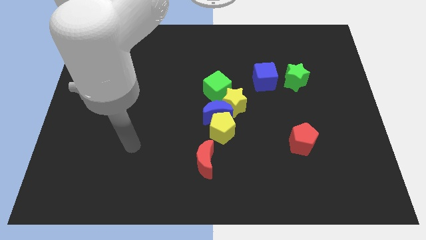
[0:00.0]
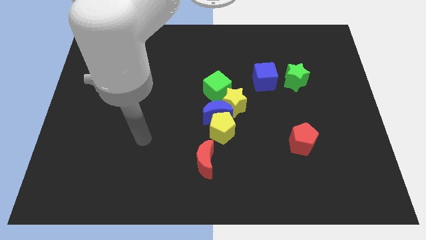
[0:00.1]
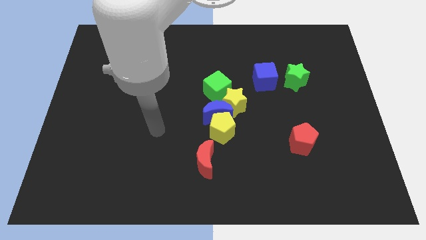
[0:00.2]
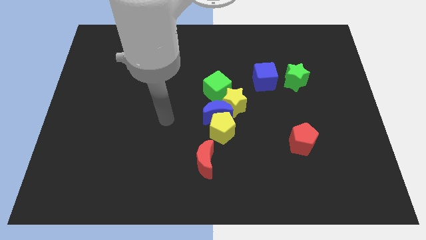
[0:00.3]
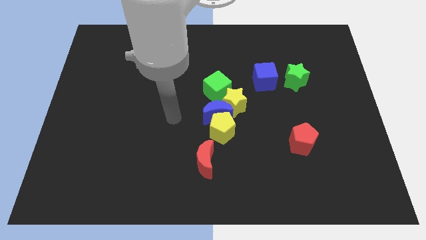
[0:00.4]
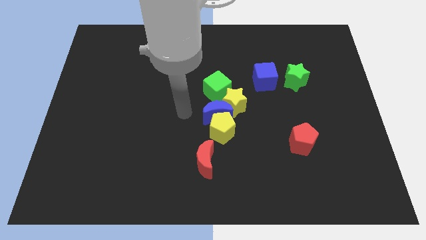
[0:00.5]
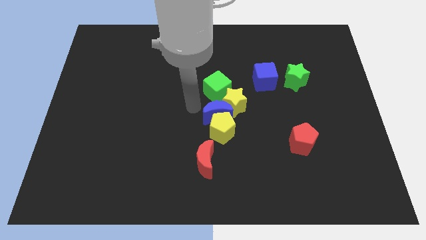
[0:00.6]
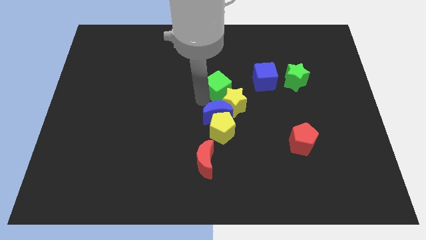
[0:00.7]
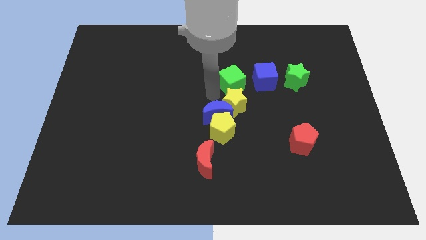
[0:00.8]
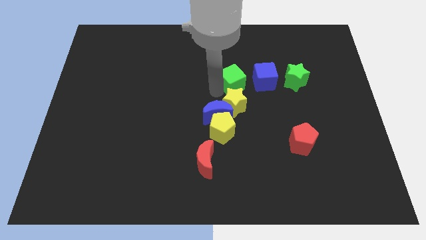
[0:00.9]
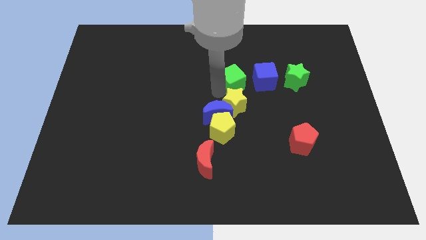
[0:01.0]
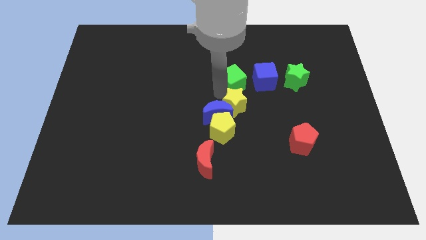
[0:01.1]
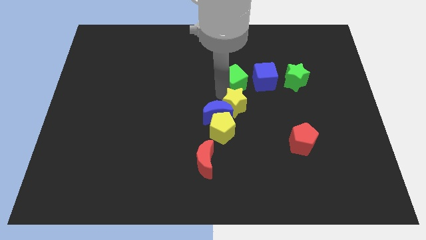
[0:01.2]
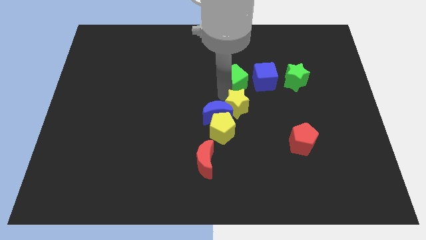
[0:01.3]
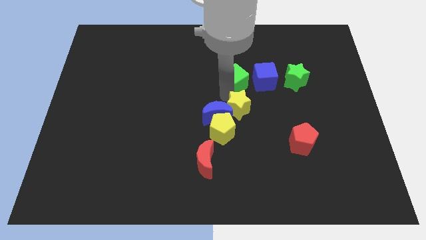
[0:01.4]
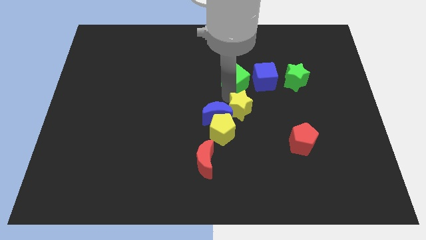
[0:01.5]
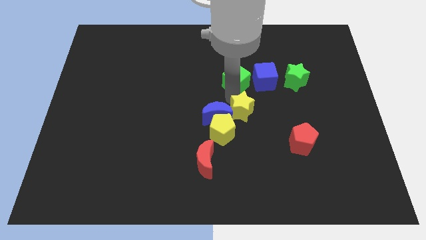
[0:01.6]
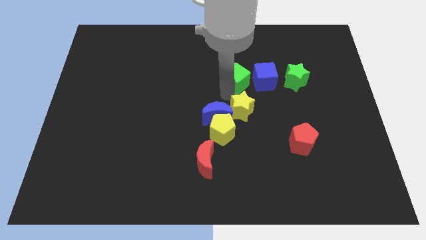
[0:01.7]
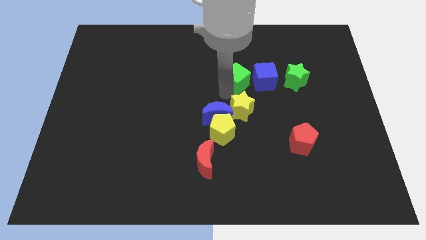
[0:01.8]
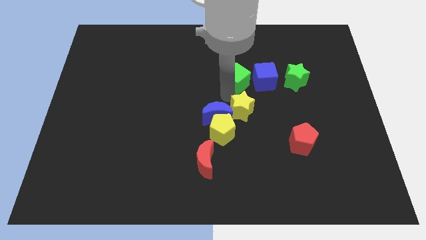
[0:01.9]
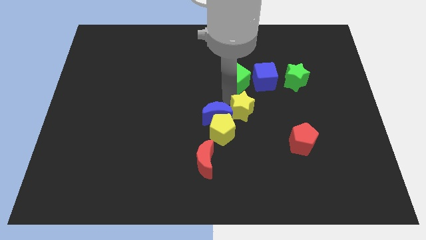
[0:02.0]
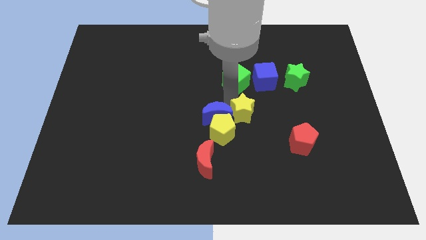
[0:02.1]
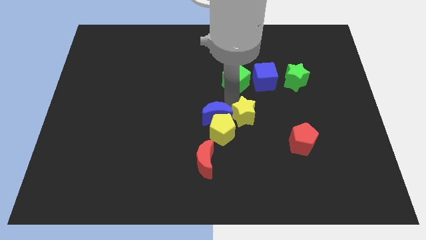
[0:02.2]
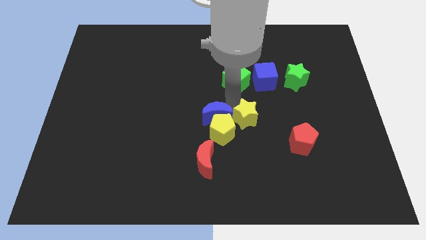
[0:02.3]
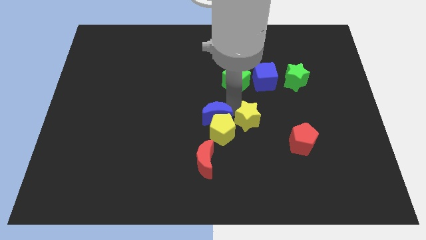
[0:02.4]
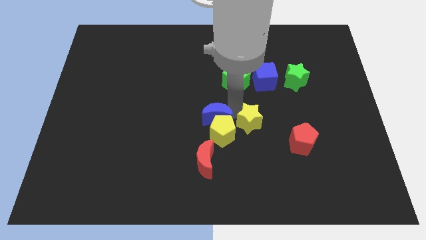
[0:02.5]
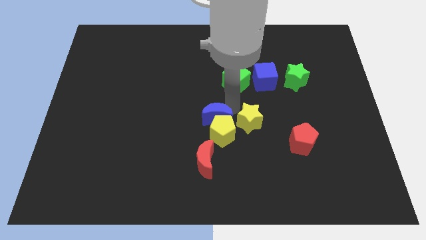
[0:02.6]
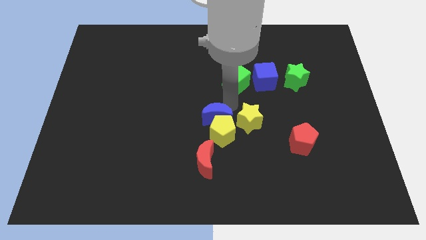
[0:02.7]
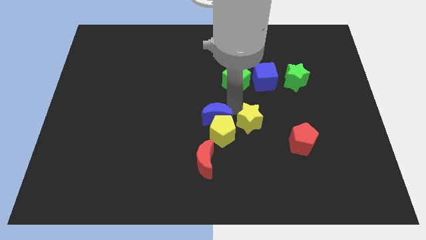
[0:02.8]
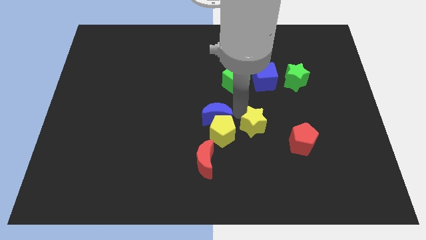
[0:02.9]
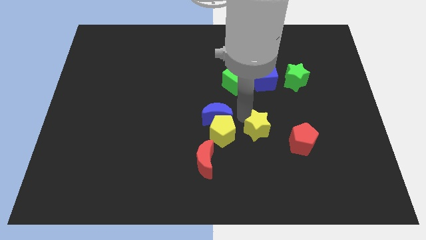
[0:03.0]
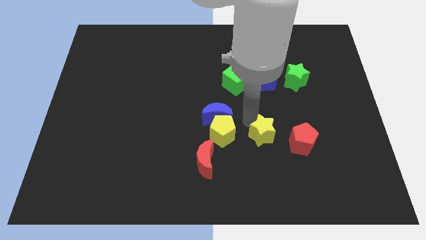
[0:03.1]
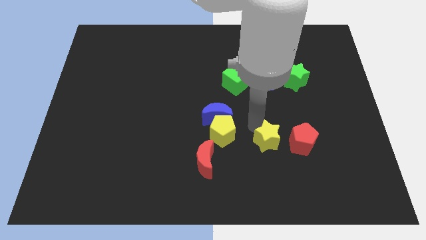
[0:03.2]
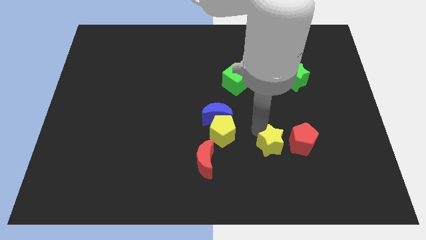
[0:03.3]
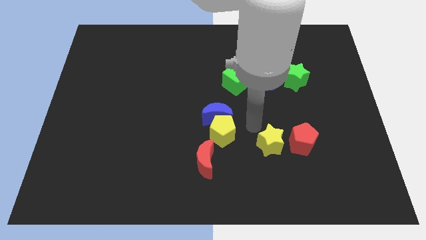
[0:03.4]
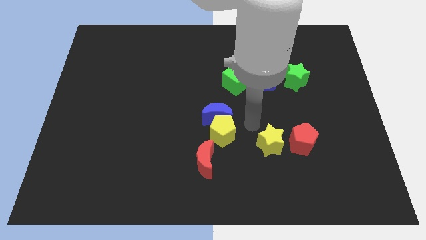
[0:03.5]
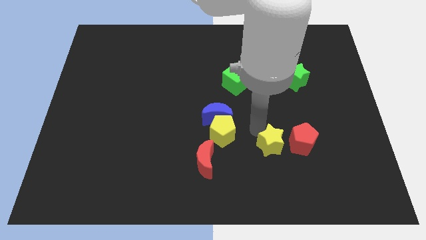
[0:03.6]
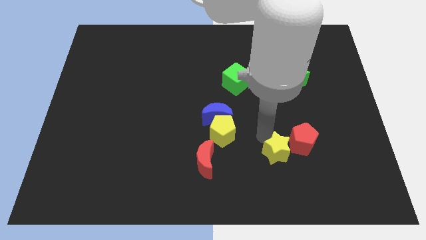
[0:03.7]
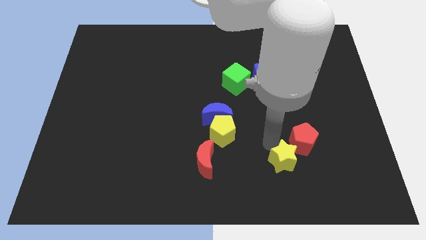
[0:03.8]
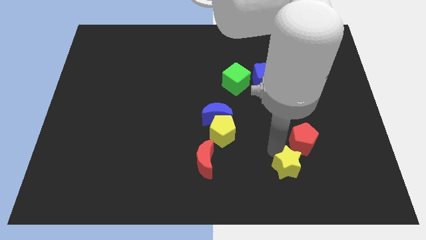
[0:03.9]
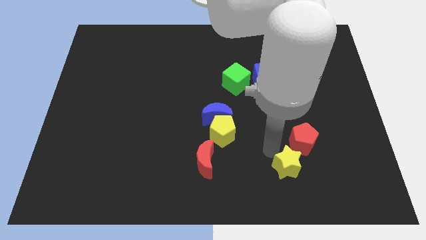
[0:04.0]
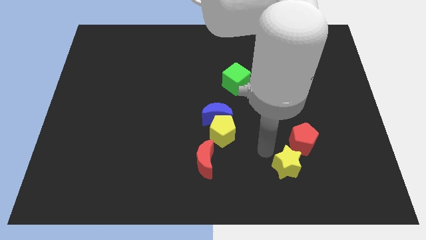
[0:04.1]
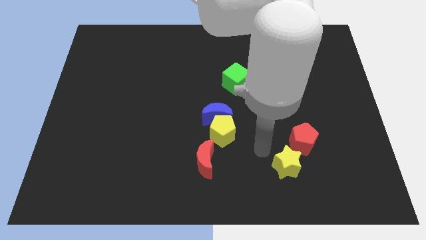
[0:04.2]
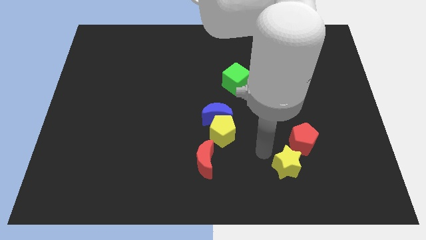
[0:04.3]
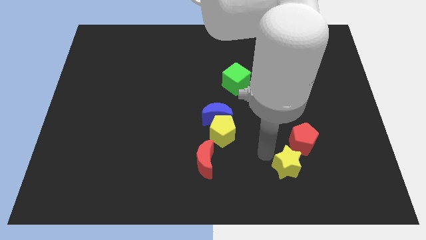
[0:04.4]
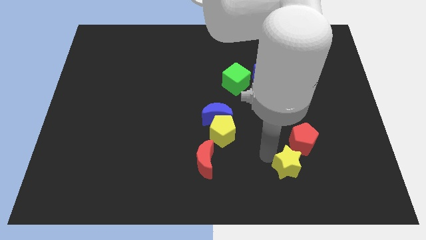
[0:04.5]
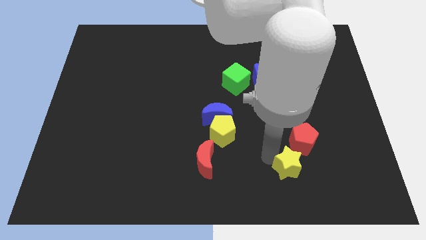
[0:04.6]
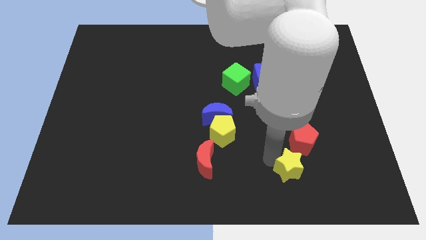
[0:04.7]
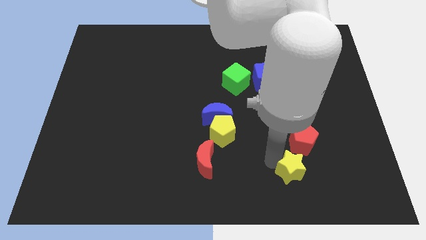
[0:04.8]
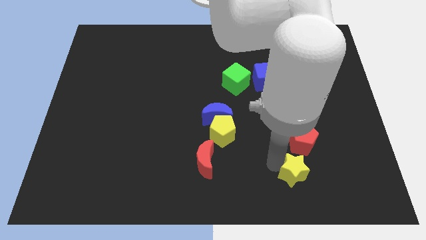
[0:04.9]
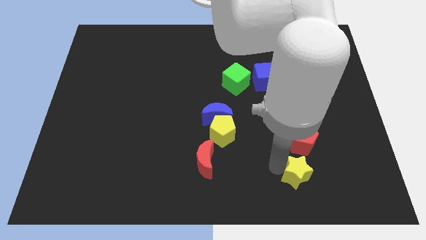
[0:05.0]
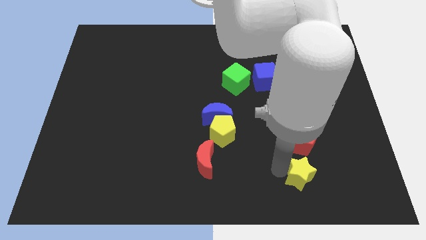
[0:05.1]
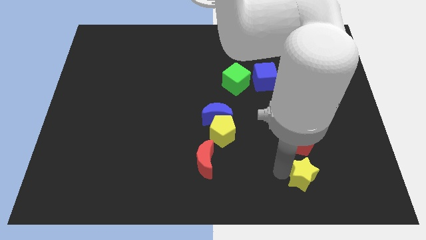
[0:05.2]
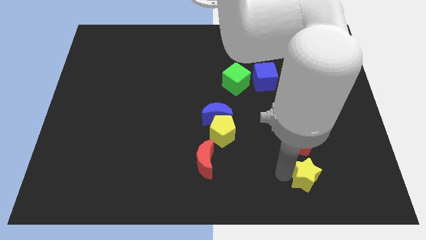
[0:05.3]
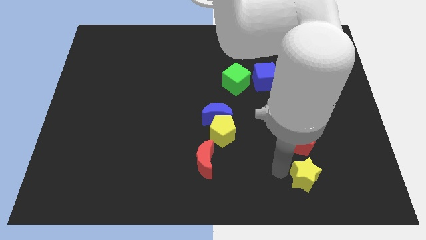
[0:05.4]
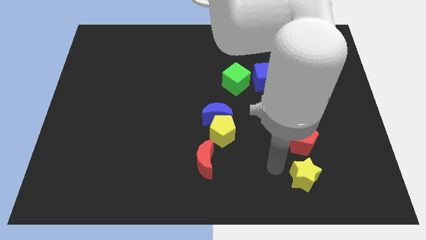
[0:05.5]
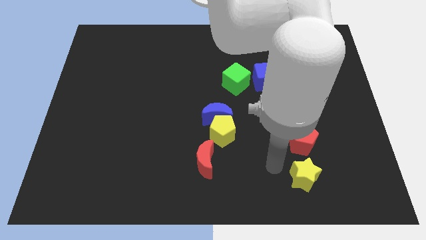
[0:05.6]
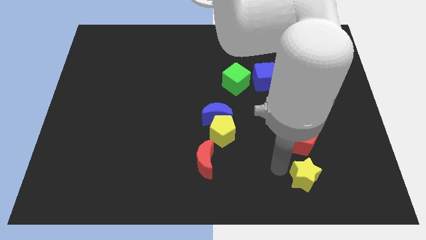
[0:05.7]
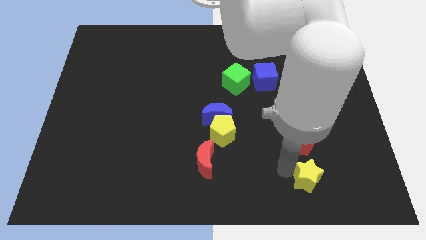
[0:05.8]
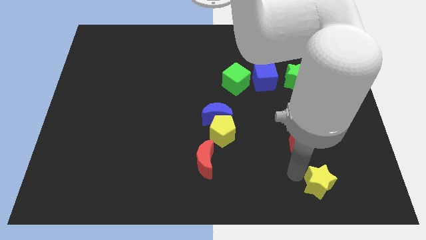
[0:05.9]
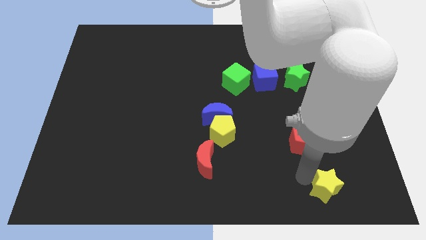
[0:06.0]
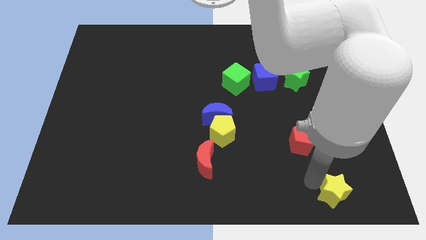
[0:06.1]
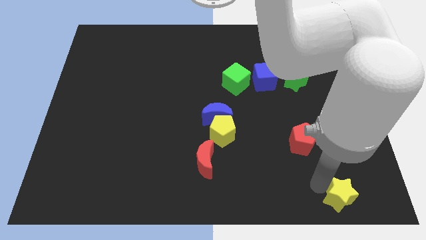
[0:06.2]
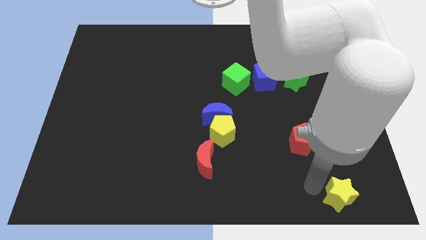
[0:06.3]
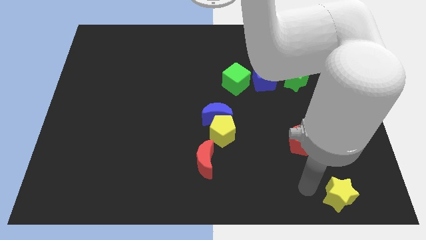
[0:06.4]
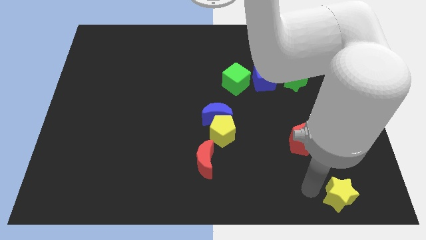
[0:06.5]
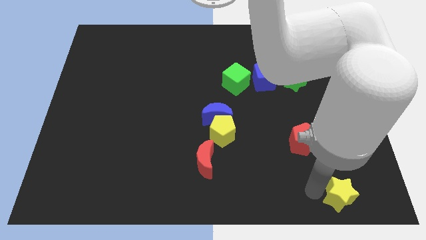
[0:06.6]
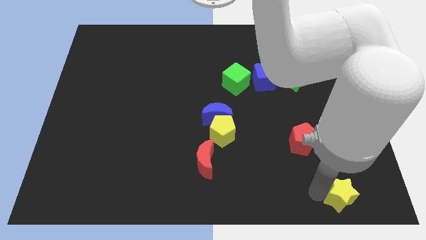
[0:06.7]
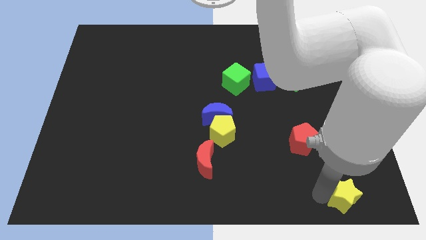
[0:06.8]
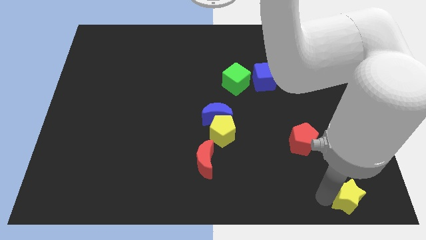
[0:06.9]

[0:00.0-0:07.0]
put the yellow star to the bottom right corner

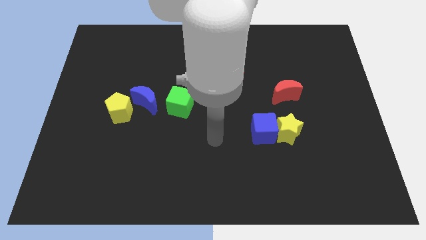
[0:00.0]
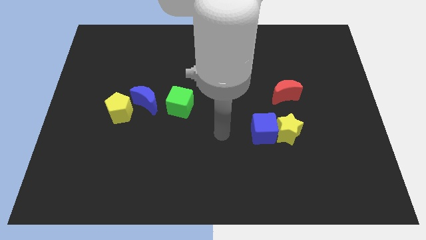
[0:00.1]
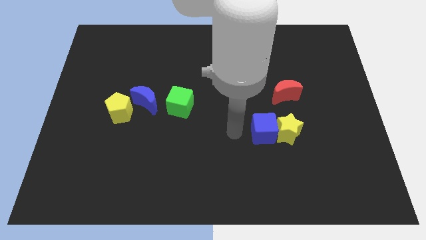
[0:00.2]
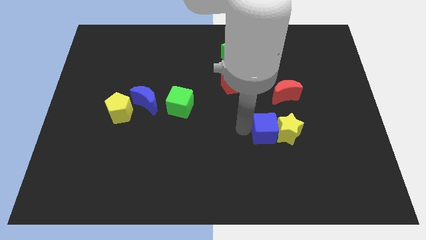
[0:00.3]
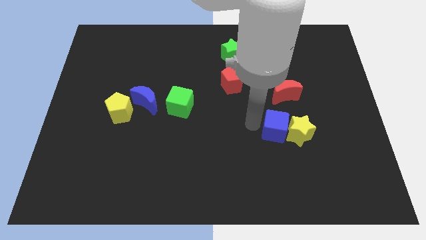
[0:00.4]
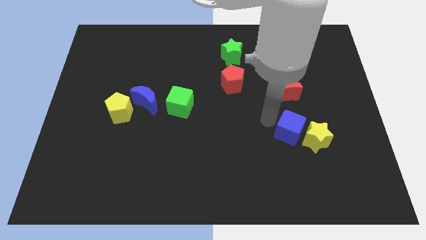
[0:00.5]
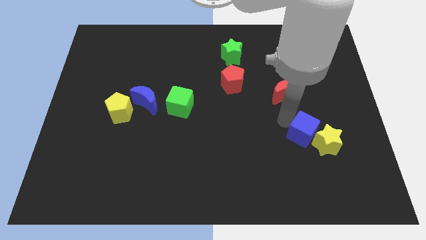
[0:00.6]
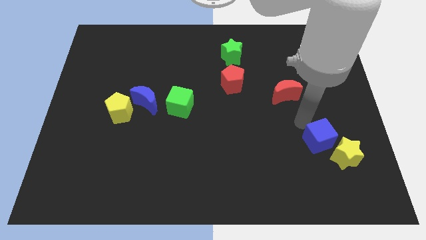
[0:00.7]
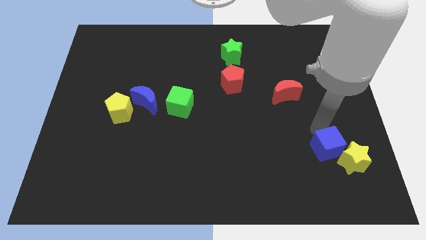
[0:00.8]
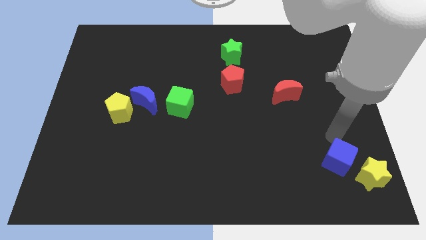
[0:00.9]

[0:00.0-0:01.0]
move the yellow star to the bottom right
